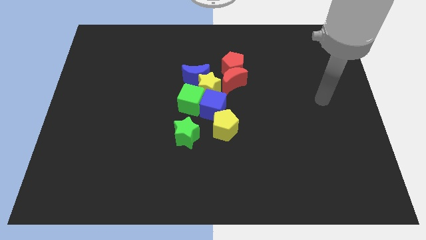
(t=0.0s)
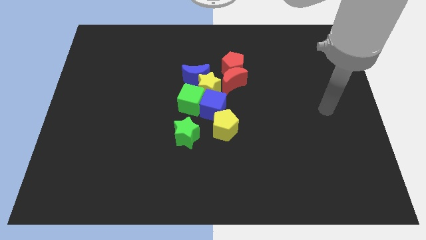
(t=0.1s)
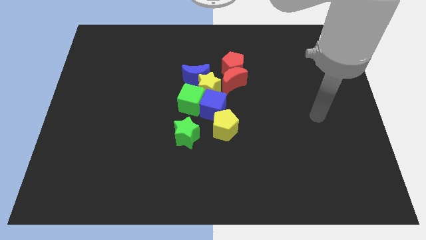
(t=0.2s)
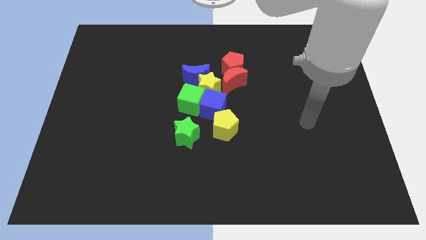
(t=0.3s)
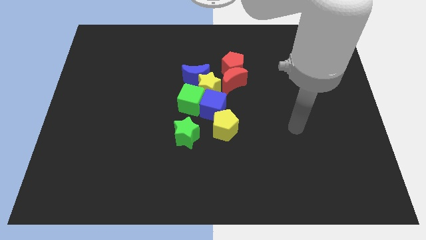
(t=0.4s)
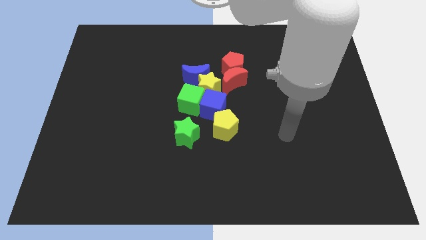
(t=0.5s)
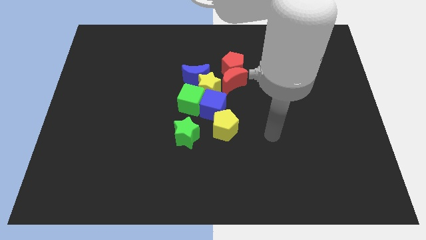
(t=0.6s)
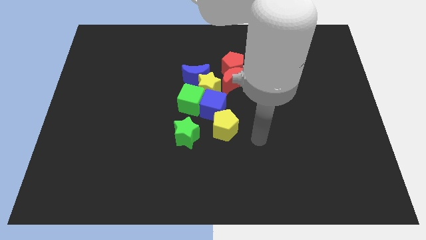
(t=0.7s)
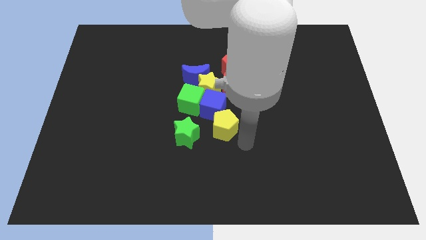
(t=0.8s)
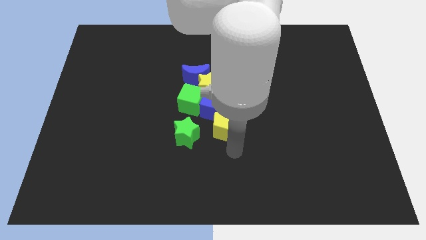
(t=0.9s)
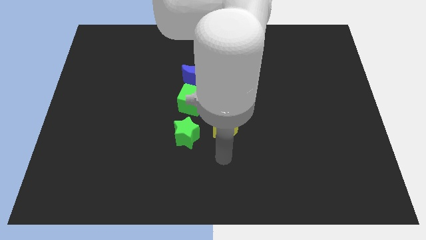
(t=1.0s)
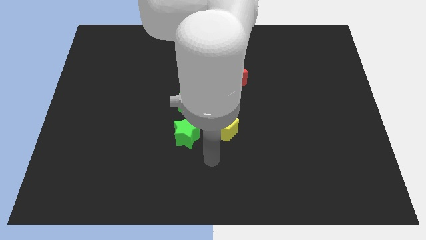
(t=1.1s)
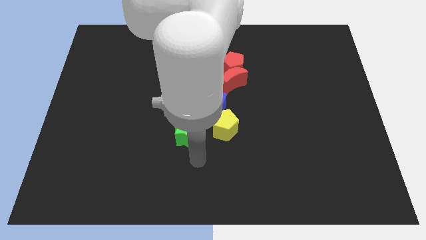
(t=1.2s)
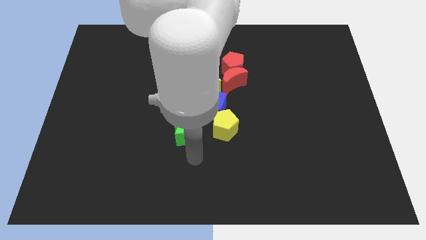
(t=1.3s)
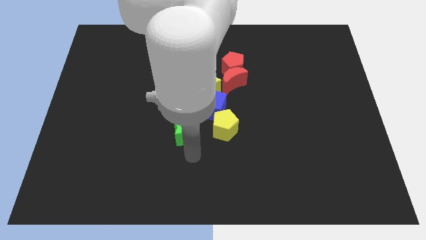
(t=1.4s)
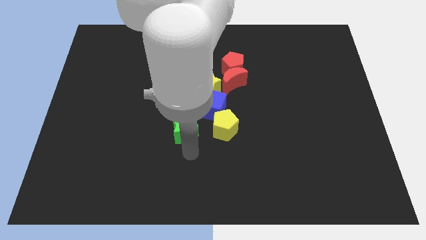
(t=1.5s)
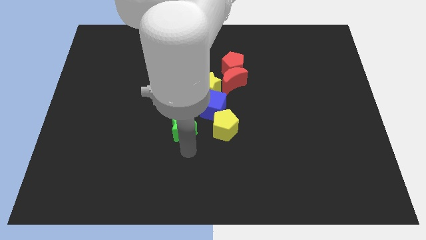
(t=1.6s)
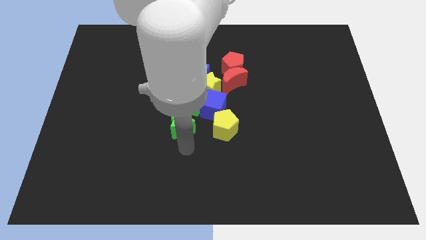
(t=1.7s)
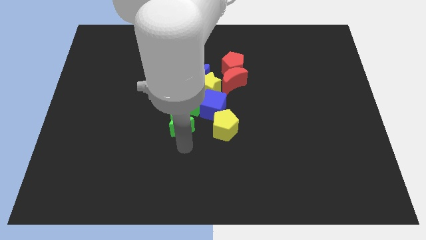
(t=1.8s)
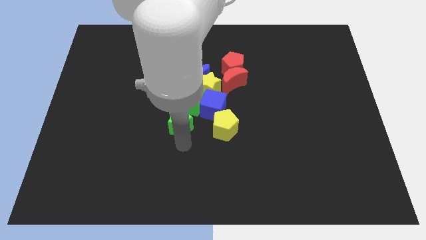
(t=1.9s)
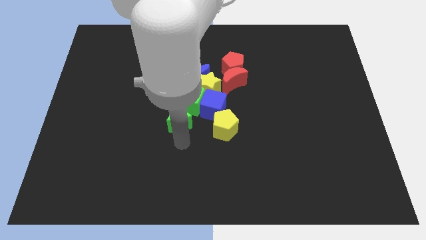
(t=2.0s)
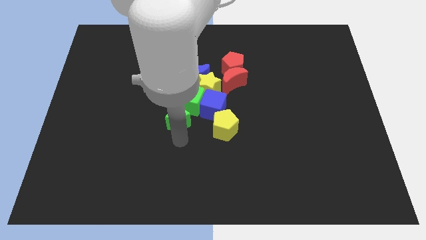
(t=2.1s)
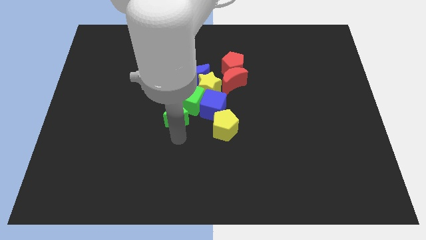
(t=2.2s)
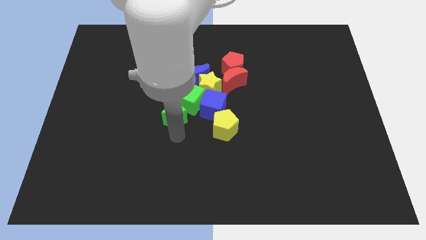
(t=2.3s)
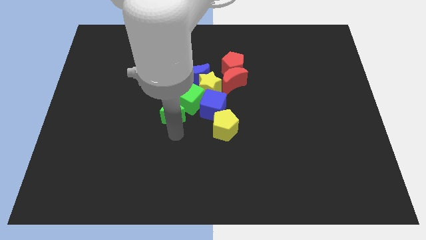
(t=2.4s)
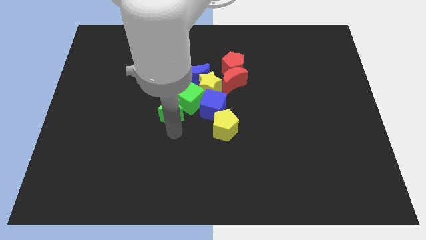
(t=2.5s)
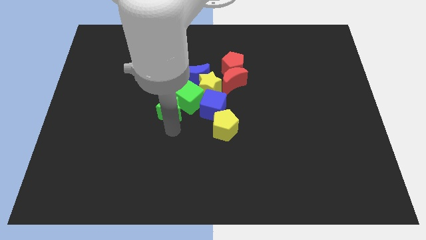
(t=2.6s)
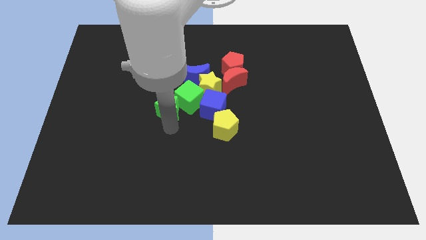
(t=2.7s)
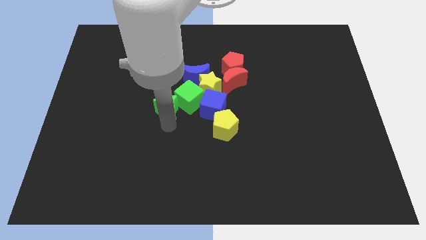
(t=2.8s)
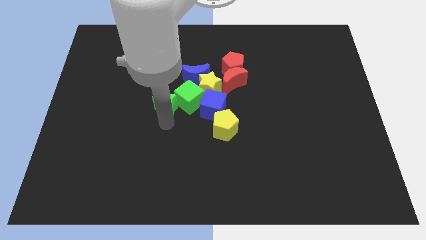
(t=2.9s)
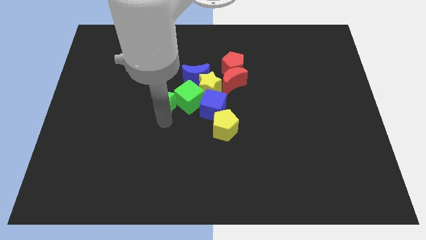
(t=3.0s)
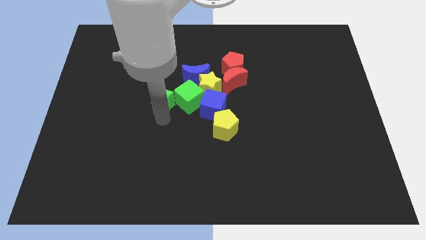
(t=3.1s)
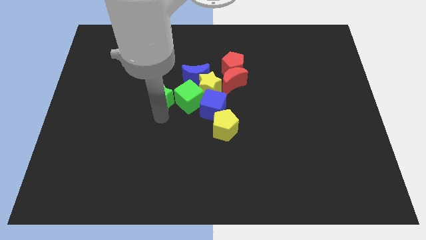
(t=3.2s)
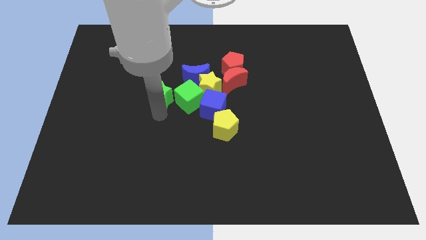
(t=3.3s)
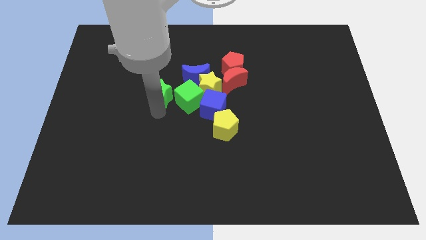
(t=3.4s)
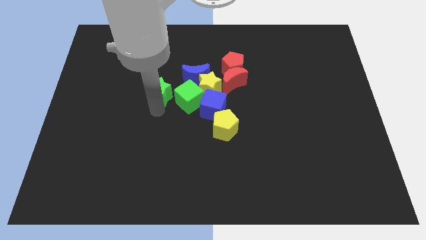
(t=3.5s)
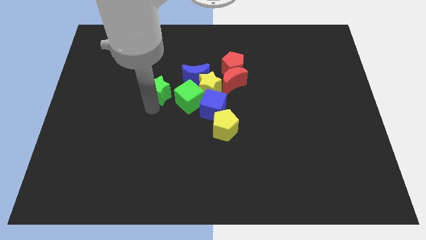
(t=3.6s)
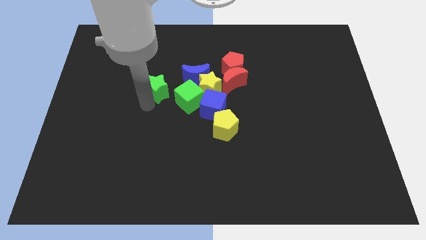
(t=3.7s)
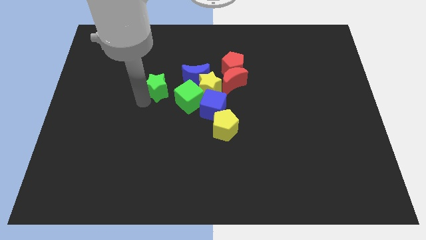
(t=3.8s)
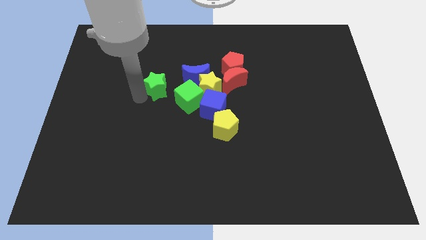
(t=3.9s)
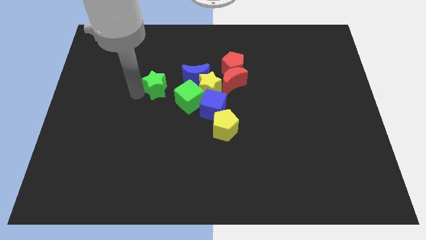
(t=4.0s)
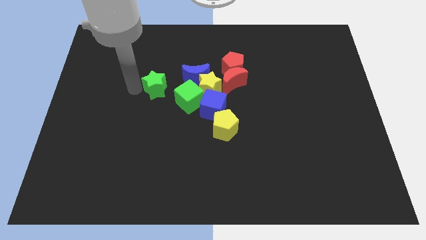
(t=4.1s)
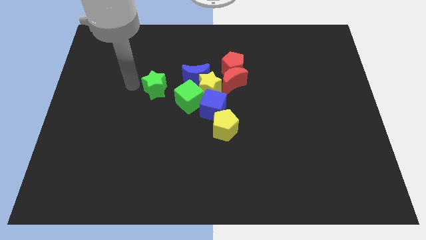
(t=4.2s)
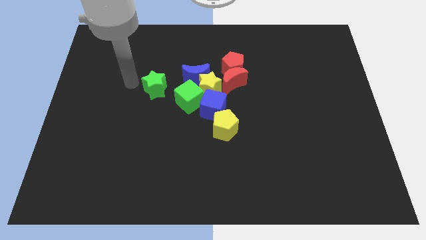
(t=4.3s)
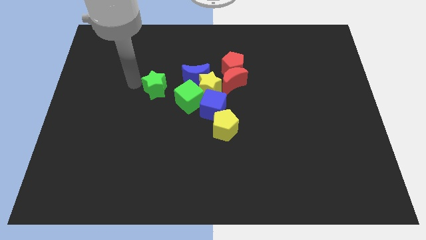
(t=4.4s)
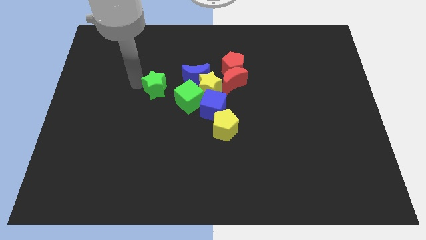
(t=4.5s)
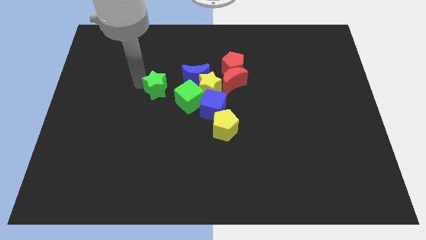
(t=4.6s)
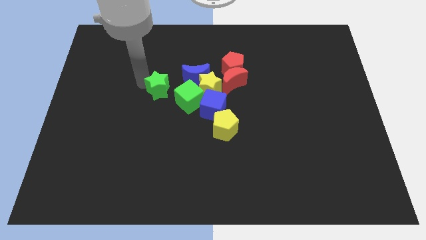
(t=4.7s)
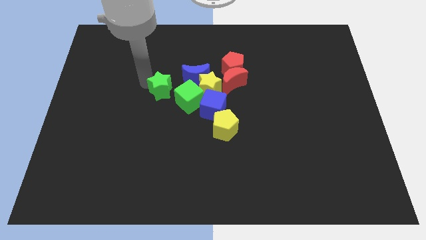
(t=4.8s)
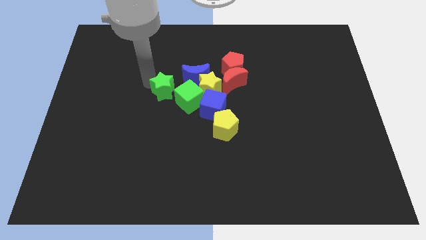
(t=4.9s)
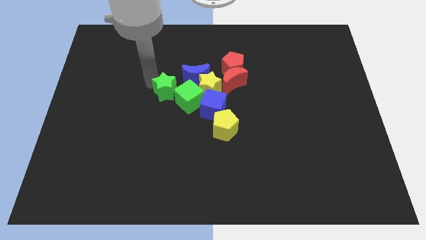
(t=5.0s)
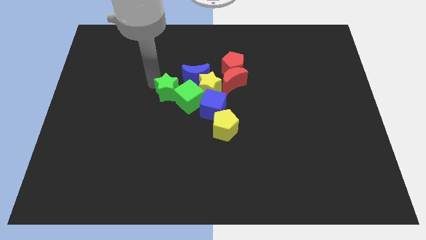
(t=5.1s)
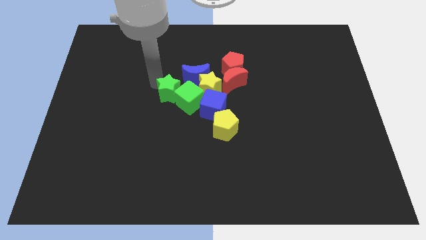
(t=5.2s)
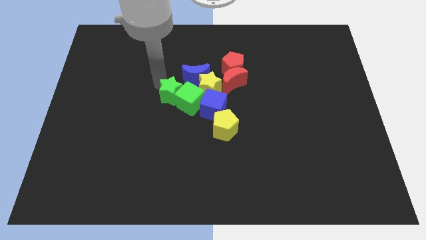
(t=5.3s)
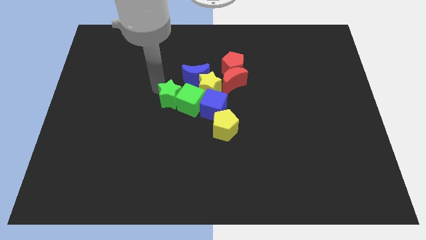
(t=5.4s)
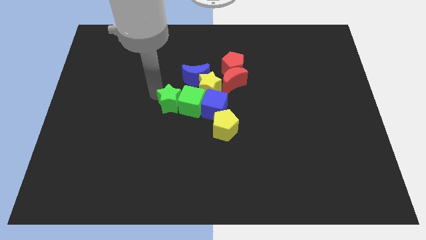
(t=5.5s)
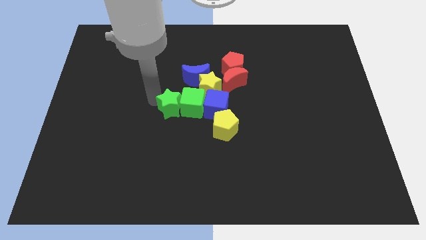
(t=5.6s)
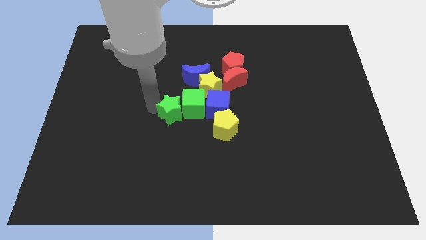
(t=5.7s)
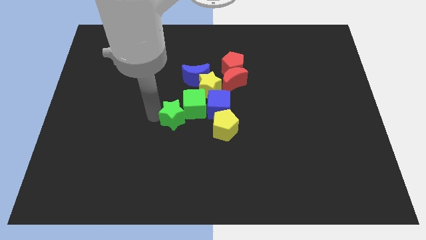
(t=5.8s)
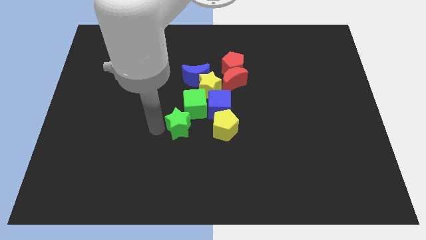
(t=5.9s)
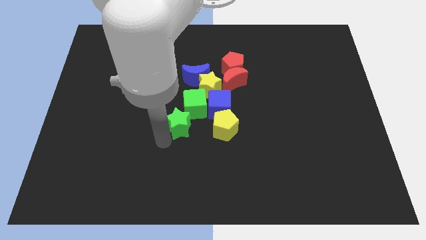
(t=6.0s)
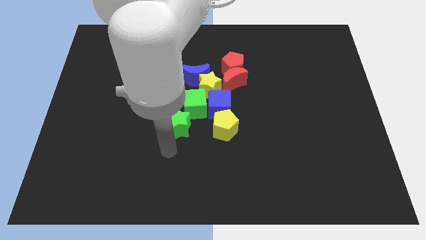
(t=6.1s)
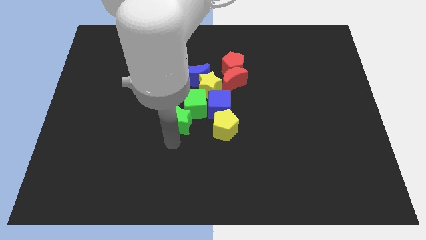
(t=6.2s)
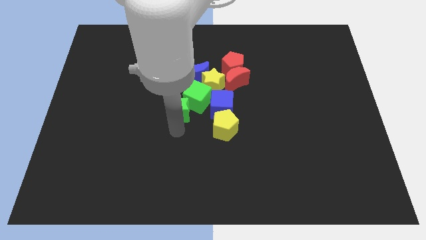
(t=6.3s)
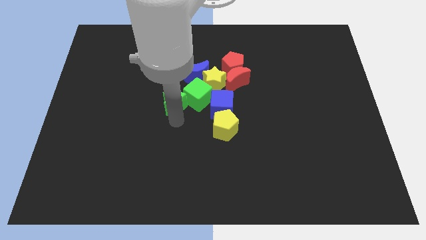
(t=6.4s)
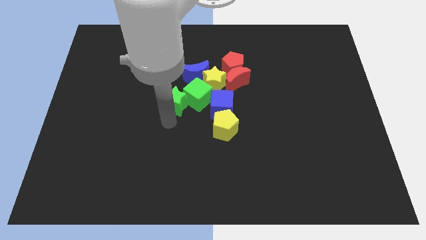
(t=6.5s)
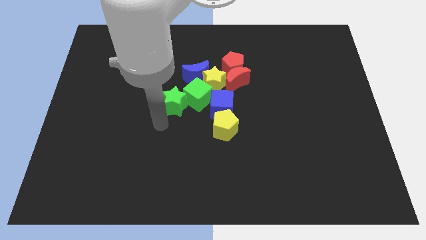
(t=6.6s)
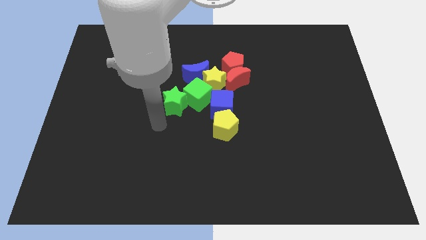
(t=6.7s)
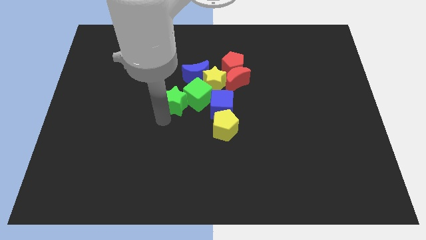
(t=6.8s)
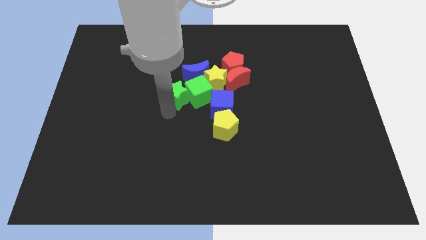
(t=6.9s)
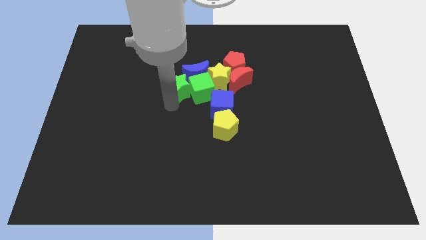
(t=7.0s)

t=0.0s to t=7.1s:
move the green star next to the blue moon

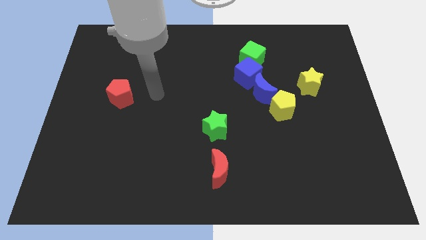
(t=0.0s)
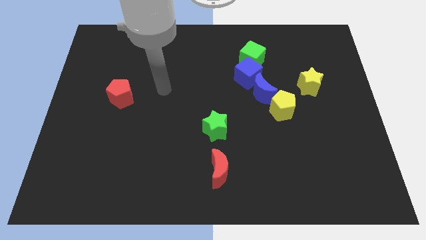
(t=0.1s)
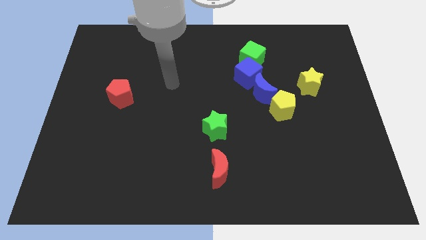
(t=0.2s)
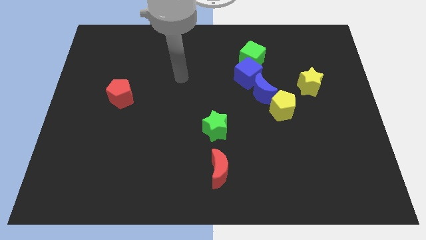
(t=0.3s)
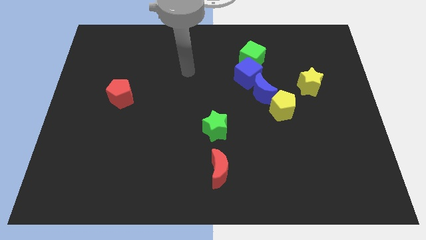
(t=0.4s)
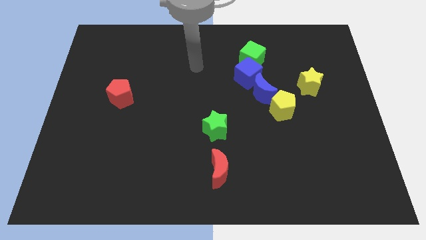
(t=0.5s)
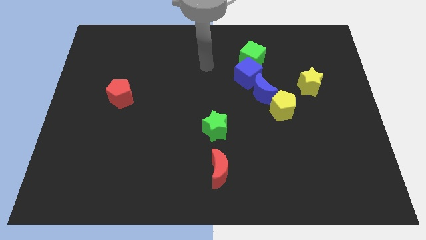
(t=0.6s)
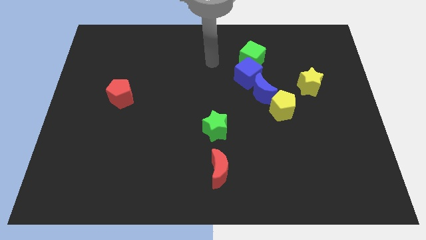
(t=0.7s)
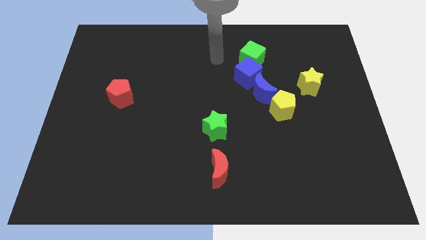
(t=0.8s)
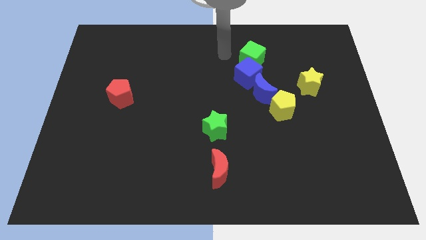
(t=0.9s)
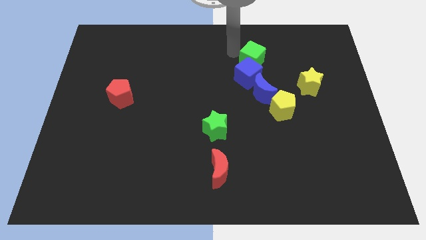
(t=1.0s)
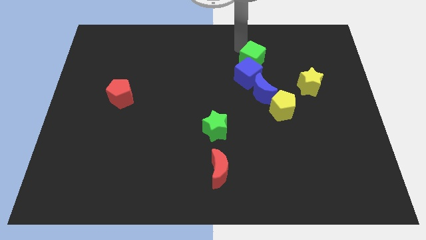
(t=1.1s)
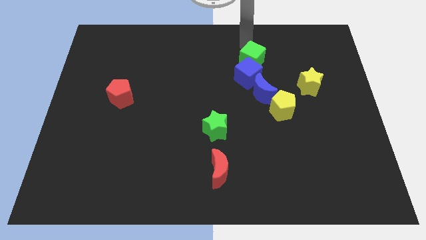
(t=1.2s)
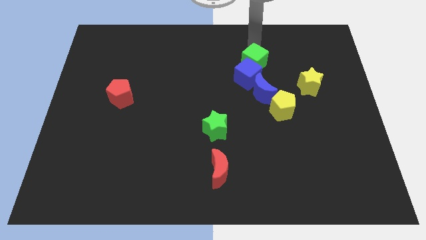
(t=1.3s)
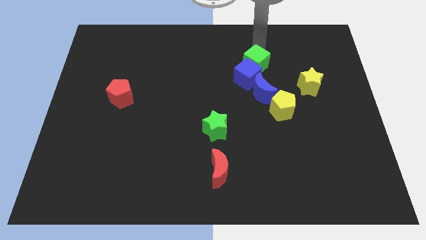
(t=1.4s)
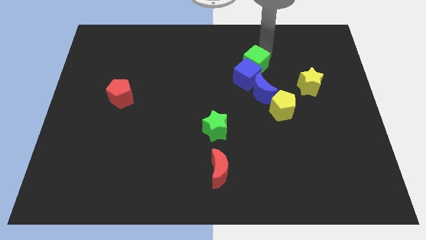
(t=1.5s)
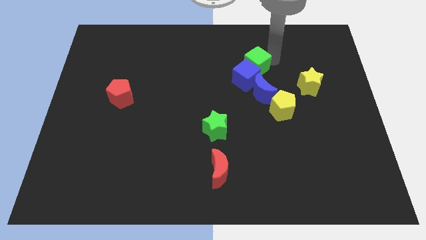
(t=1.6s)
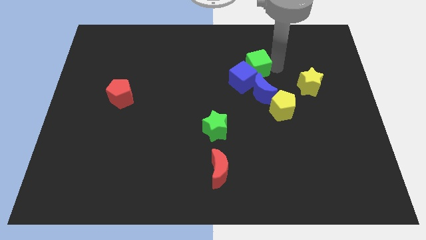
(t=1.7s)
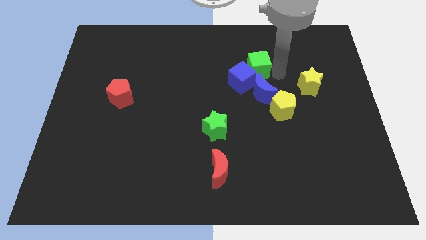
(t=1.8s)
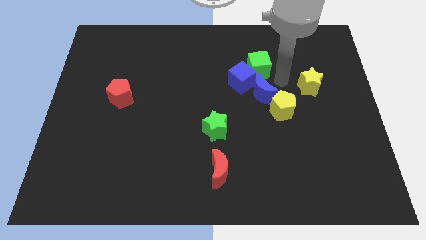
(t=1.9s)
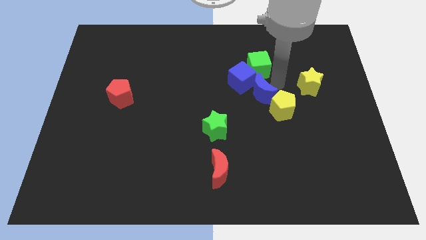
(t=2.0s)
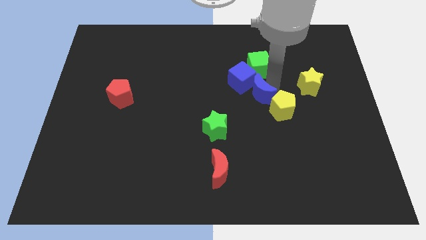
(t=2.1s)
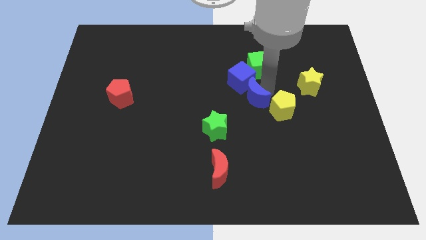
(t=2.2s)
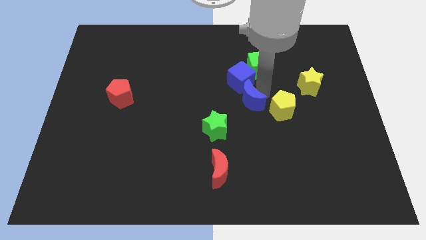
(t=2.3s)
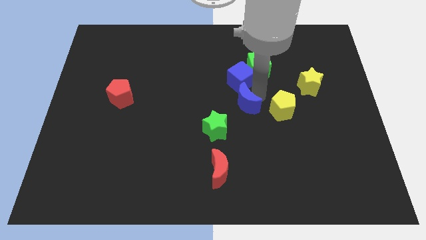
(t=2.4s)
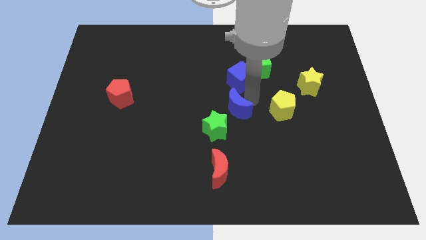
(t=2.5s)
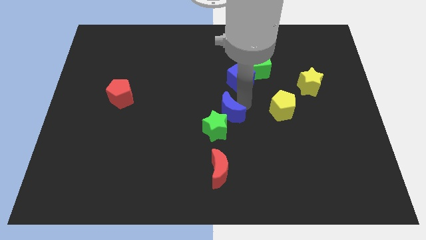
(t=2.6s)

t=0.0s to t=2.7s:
put the blue moon towards the green star
